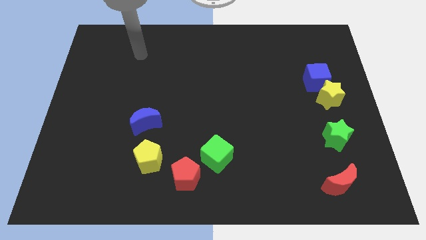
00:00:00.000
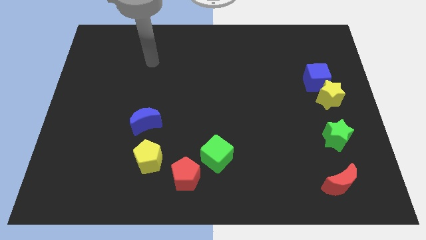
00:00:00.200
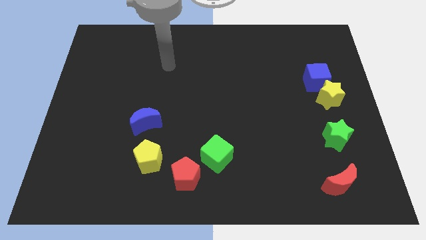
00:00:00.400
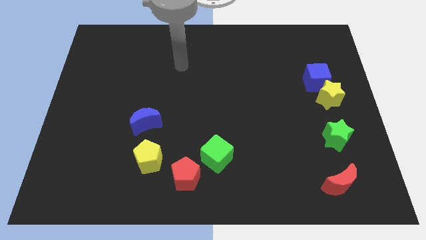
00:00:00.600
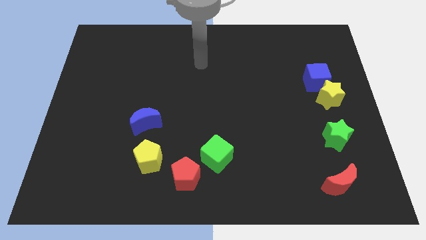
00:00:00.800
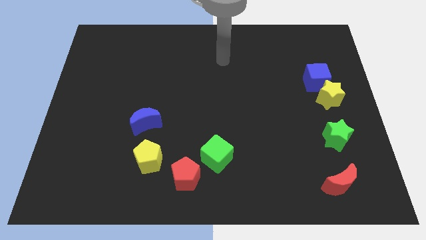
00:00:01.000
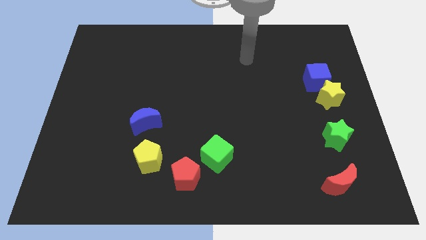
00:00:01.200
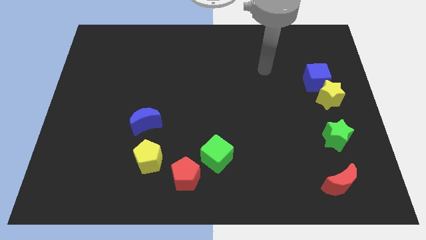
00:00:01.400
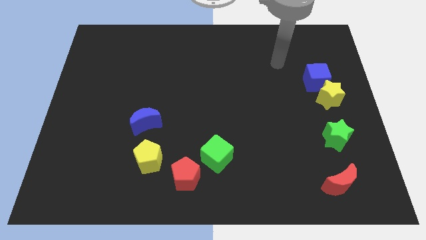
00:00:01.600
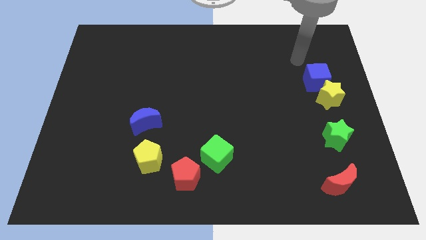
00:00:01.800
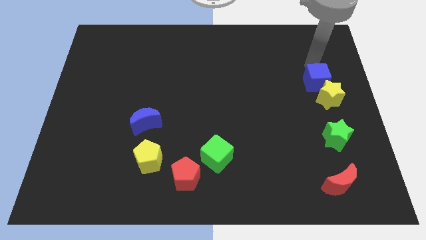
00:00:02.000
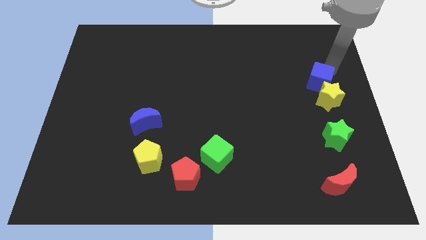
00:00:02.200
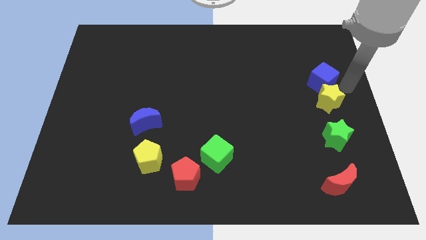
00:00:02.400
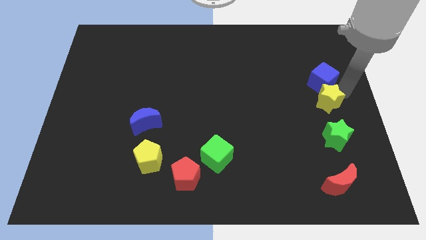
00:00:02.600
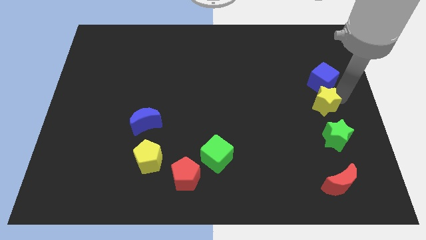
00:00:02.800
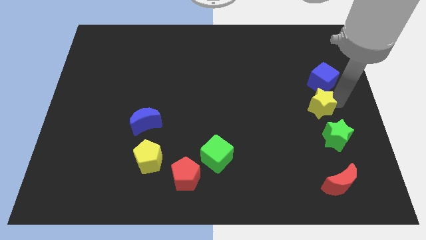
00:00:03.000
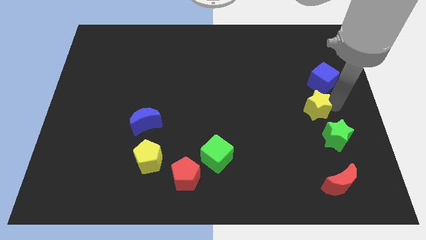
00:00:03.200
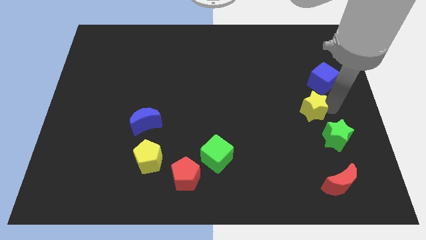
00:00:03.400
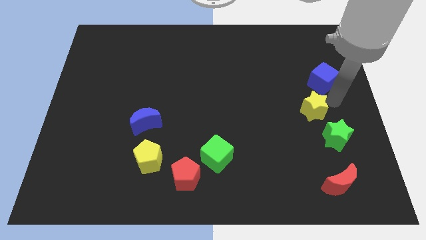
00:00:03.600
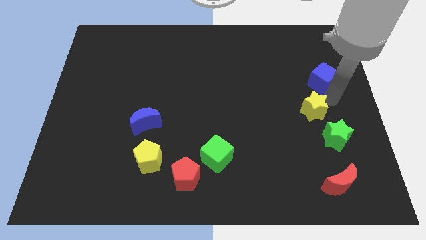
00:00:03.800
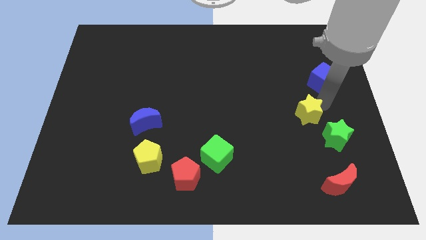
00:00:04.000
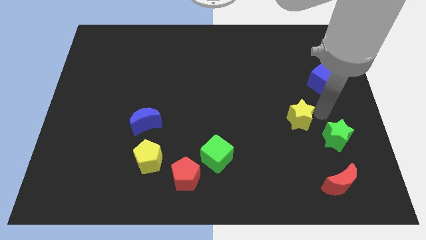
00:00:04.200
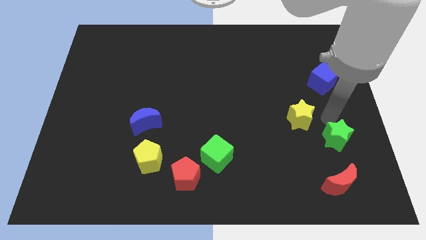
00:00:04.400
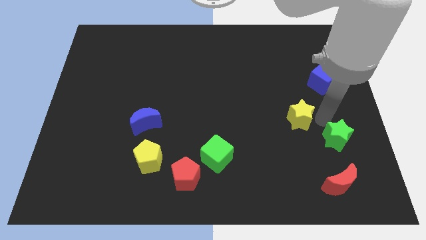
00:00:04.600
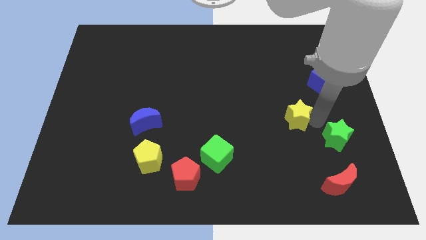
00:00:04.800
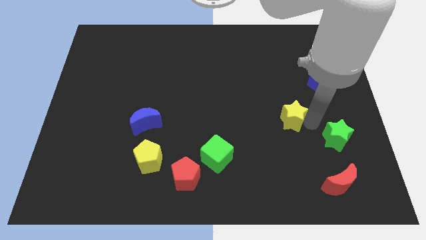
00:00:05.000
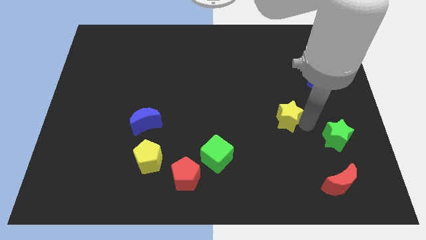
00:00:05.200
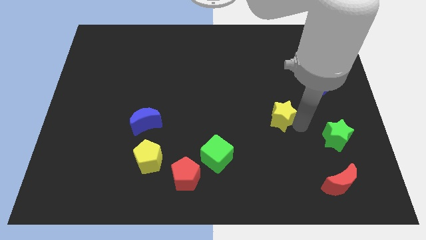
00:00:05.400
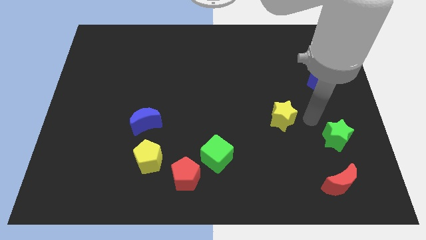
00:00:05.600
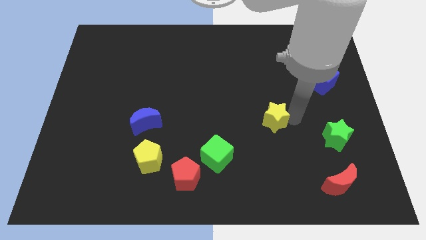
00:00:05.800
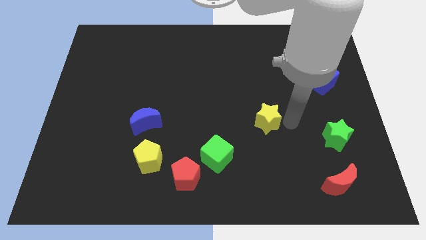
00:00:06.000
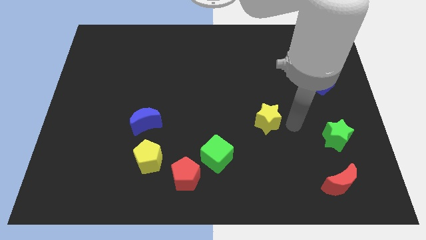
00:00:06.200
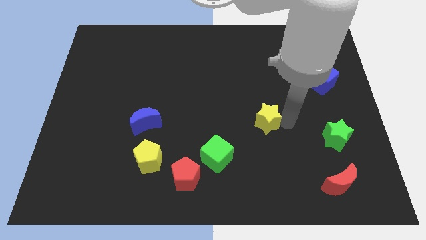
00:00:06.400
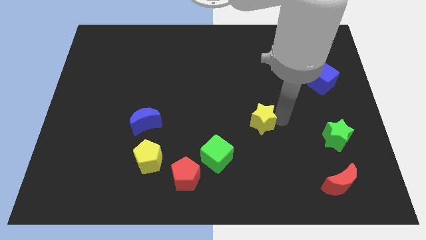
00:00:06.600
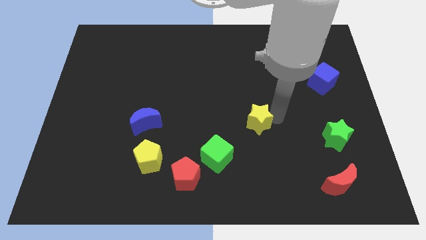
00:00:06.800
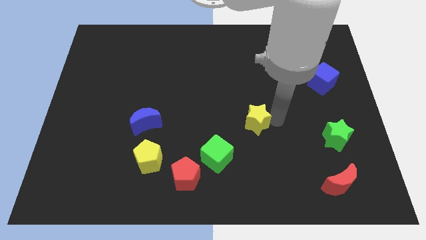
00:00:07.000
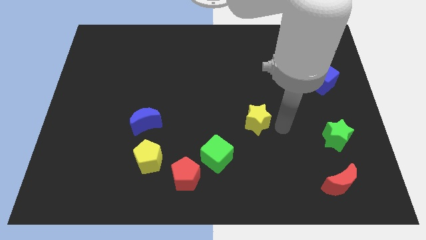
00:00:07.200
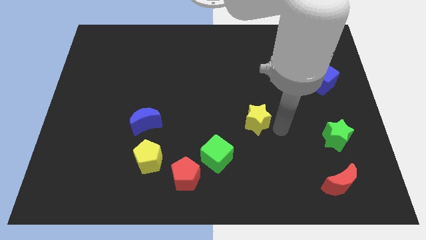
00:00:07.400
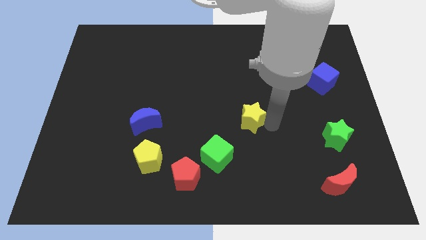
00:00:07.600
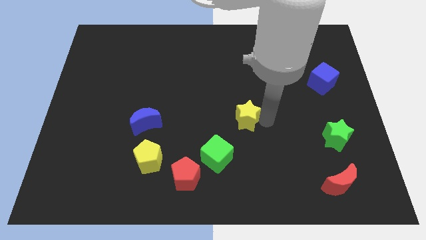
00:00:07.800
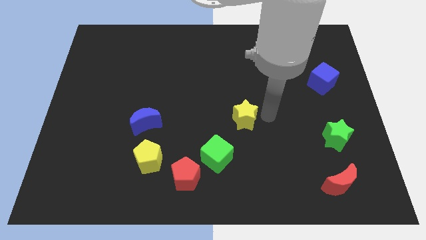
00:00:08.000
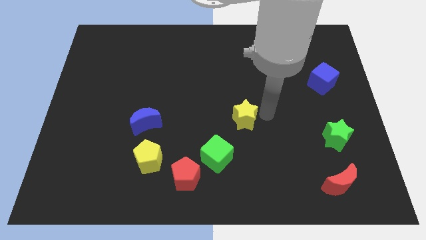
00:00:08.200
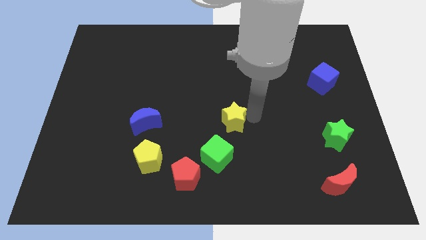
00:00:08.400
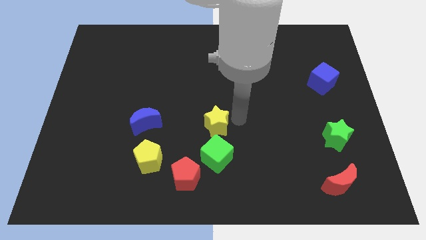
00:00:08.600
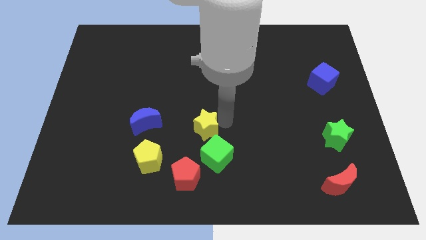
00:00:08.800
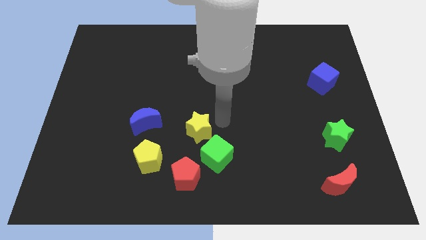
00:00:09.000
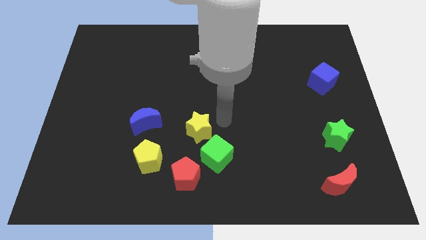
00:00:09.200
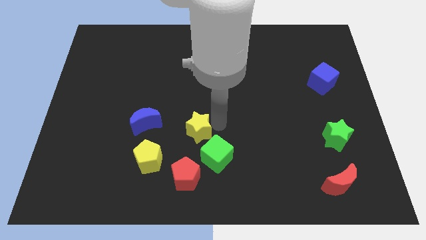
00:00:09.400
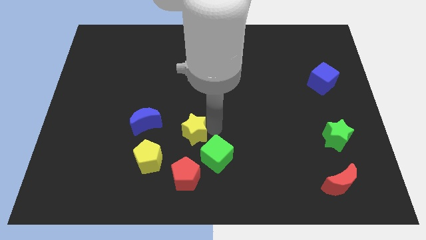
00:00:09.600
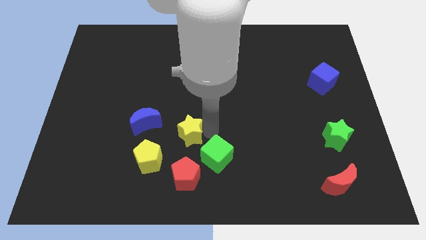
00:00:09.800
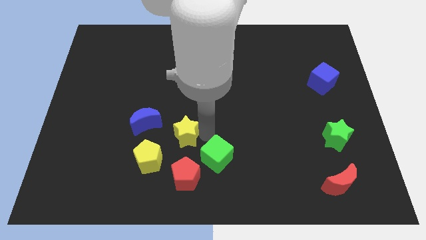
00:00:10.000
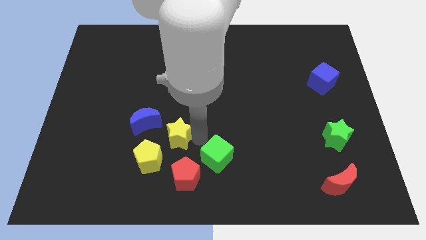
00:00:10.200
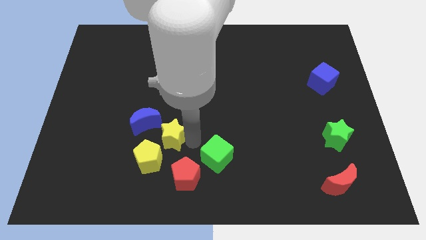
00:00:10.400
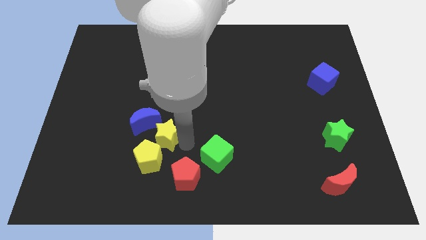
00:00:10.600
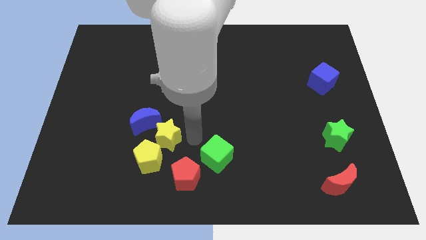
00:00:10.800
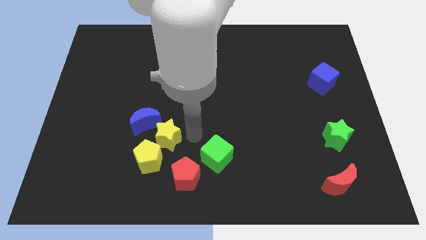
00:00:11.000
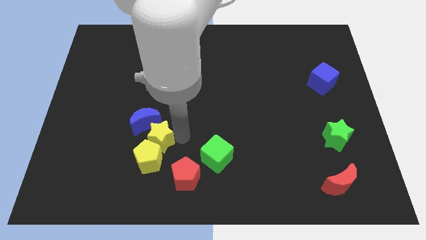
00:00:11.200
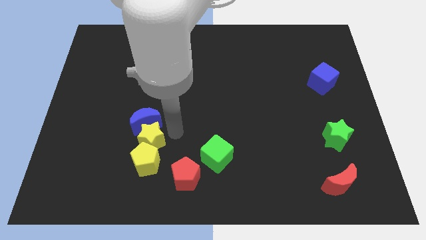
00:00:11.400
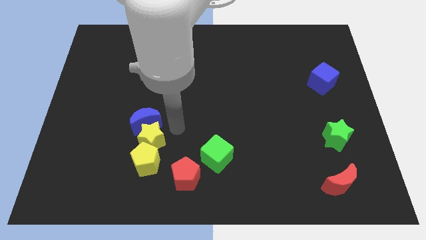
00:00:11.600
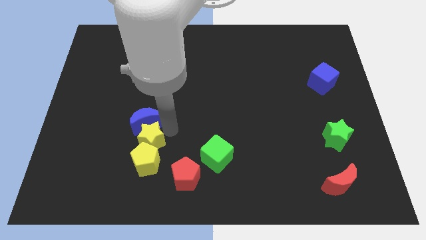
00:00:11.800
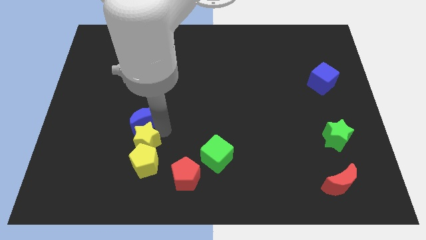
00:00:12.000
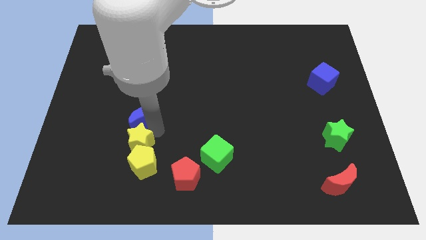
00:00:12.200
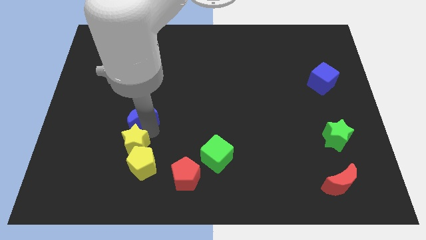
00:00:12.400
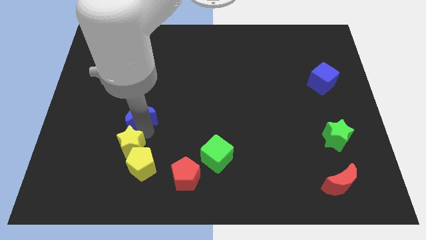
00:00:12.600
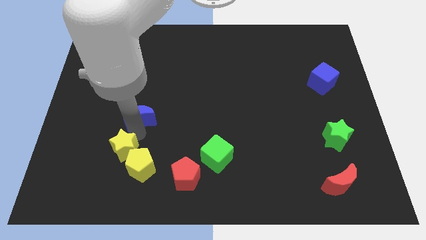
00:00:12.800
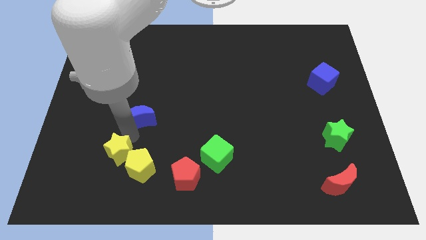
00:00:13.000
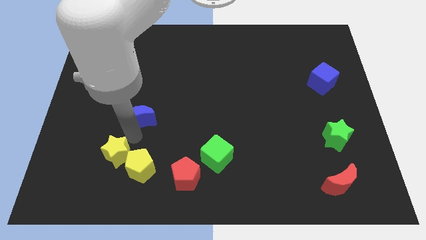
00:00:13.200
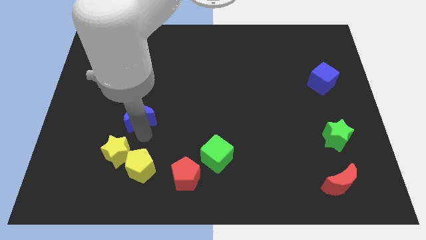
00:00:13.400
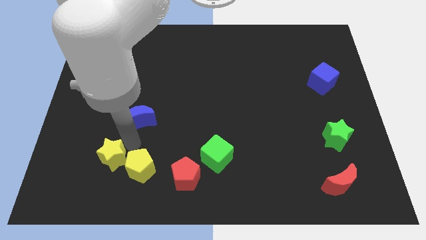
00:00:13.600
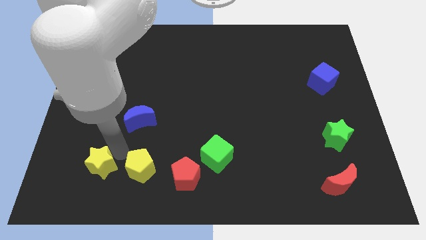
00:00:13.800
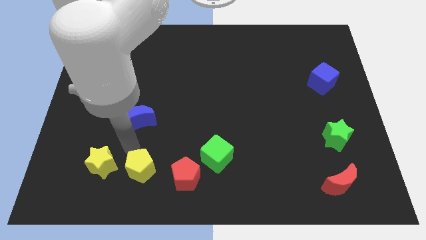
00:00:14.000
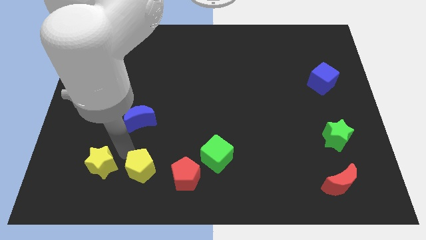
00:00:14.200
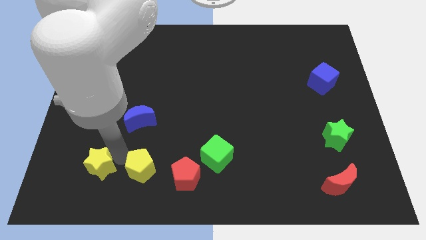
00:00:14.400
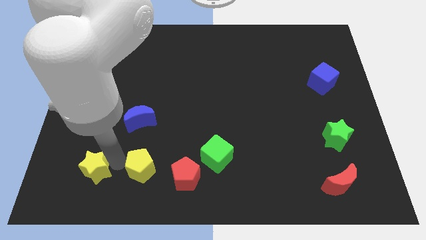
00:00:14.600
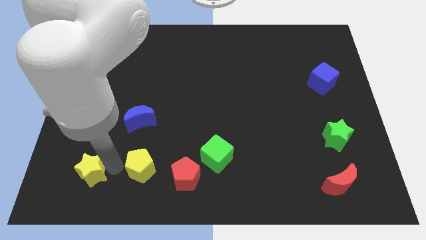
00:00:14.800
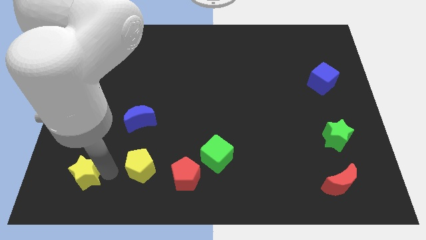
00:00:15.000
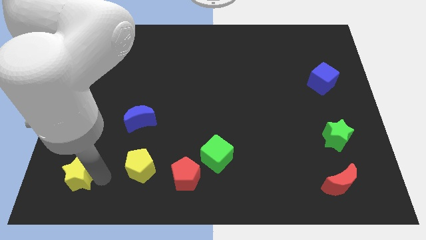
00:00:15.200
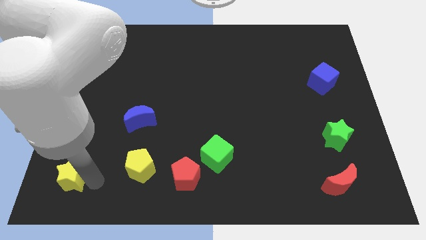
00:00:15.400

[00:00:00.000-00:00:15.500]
move the yellow star to the bottom left of the board
